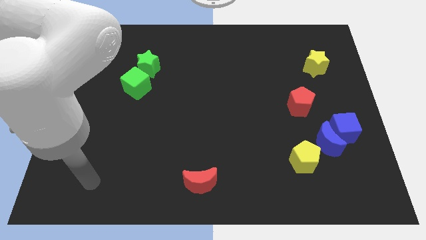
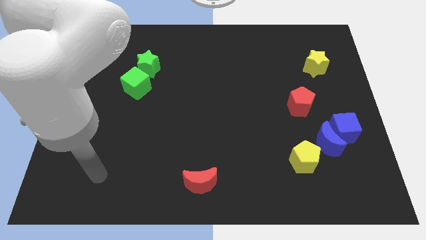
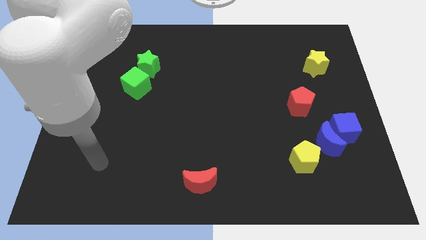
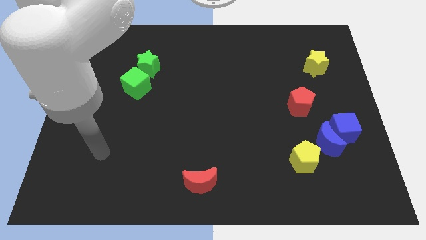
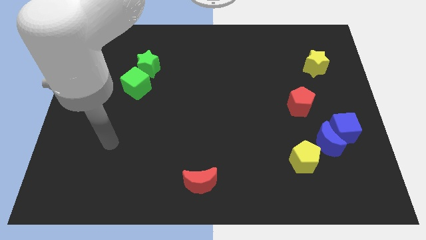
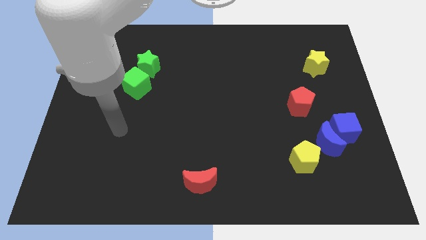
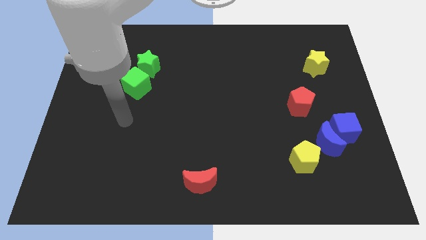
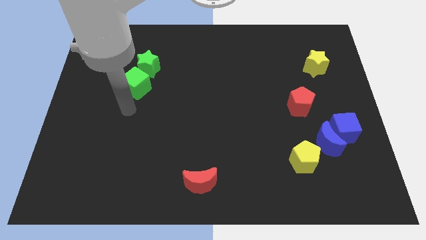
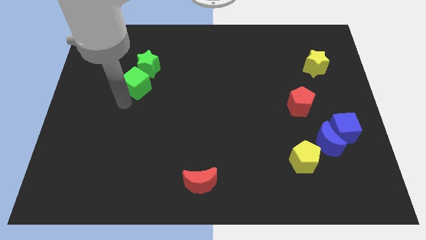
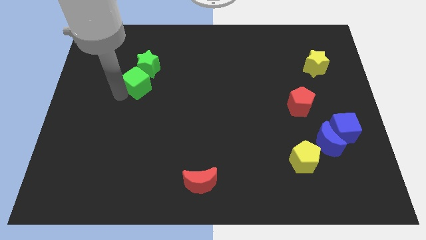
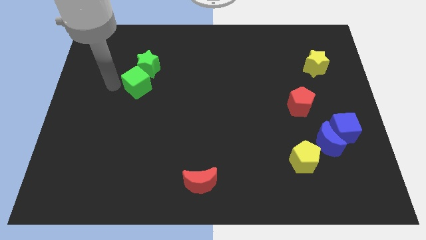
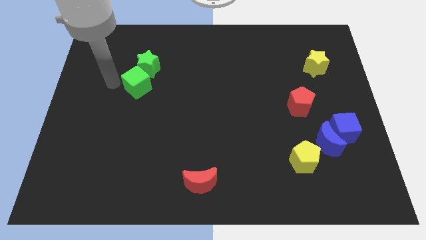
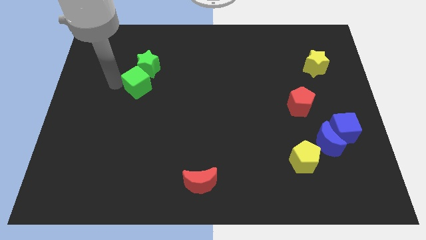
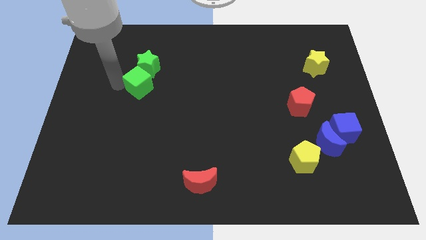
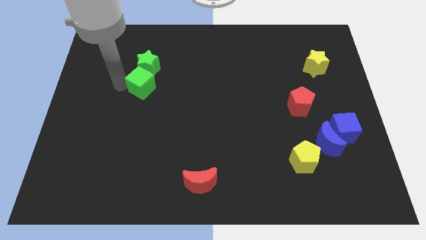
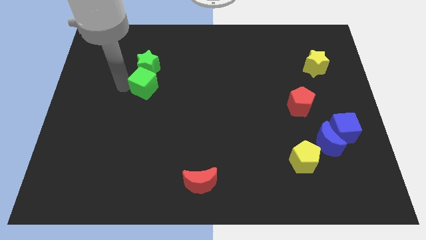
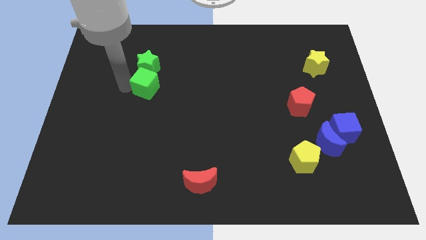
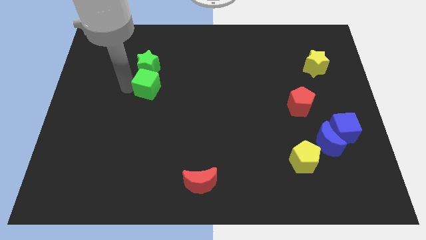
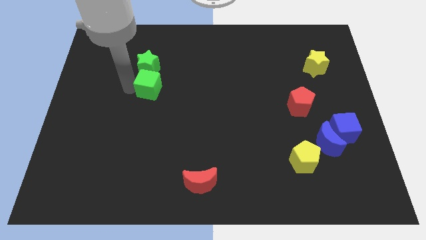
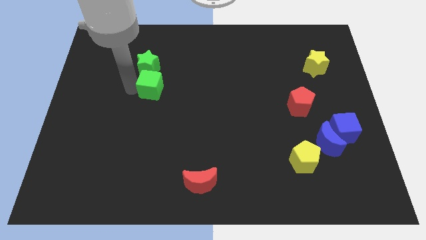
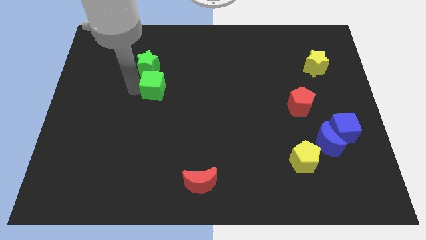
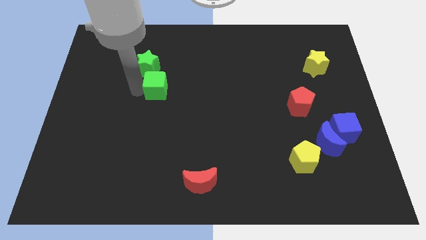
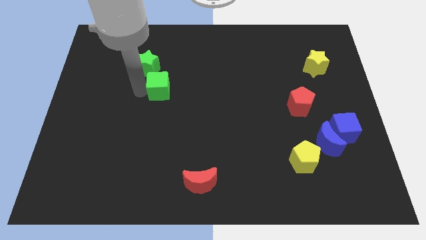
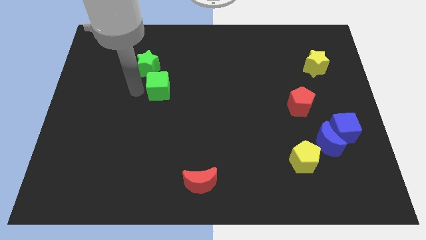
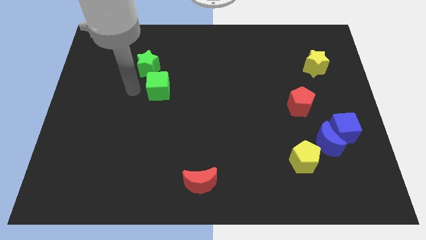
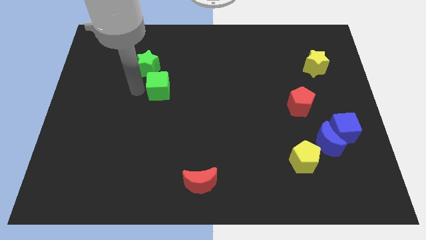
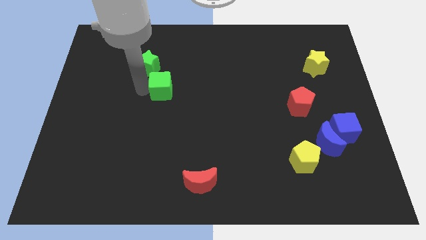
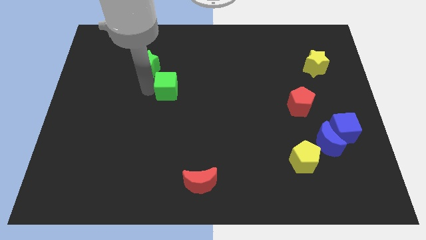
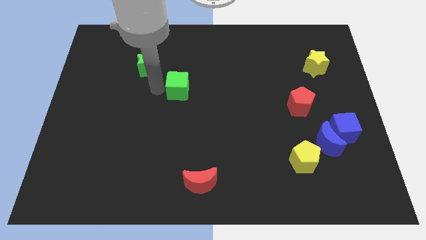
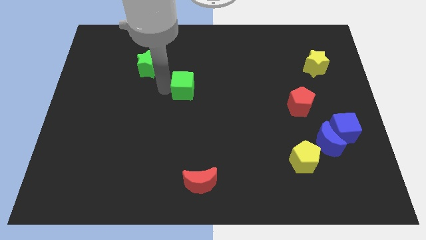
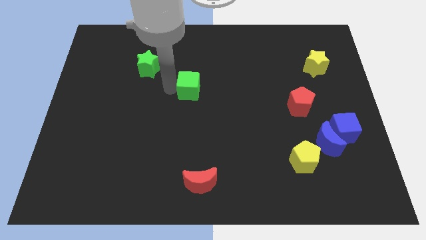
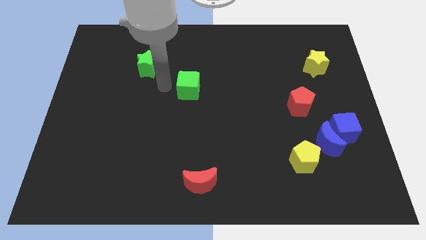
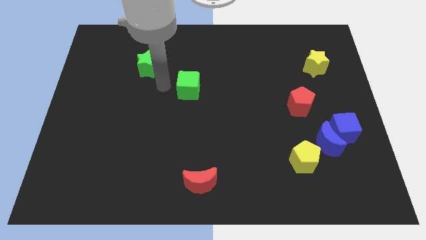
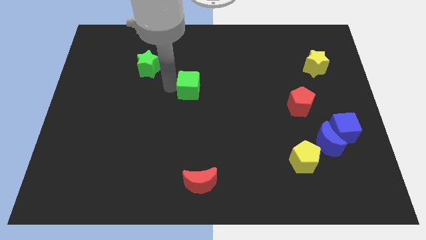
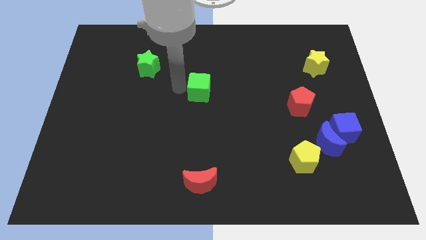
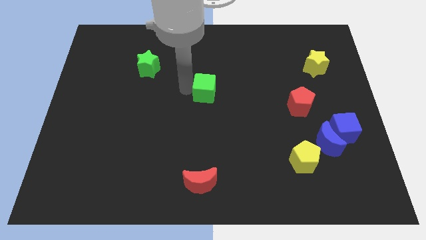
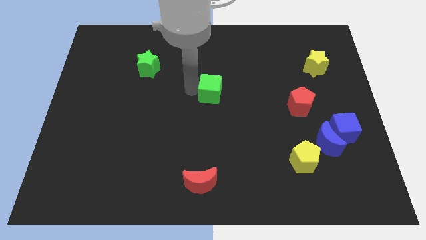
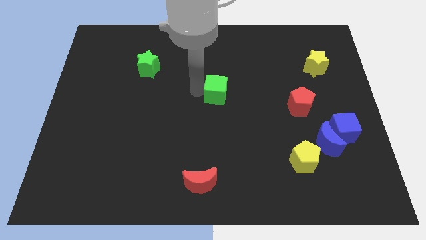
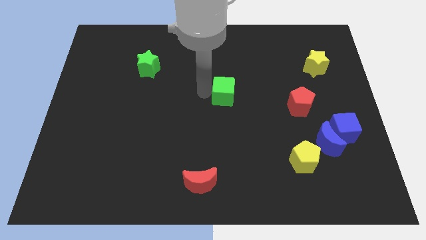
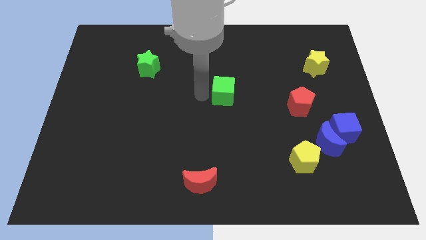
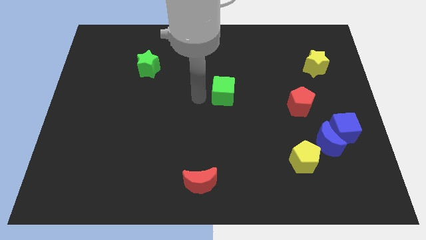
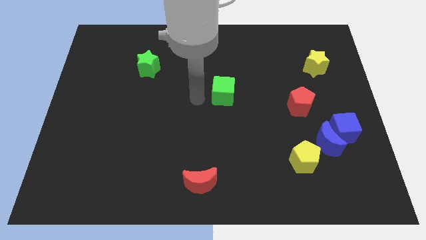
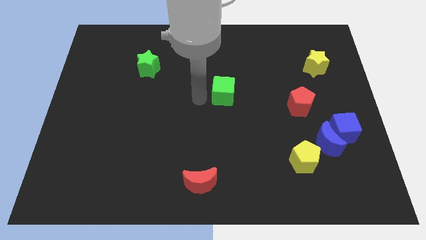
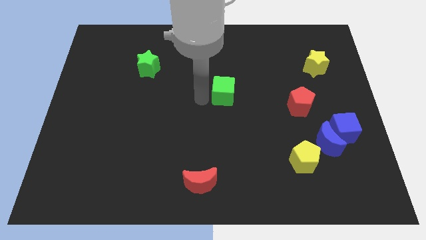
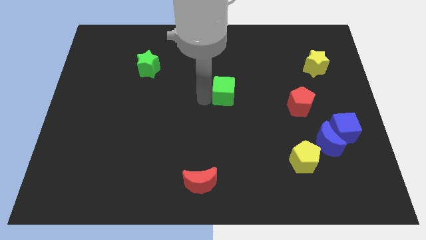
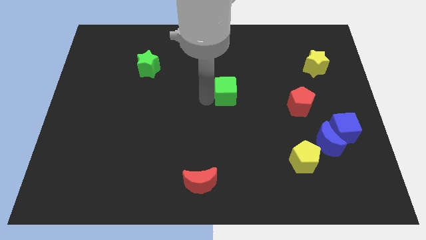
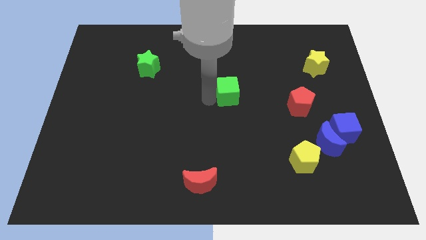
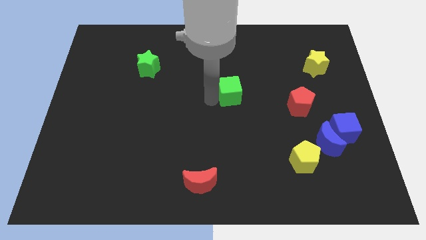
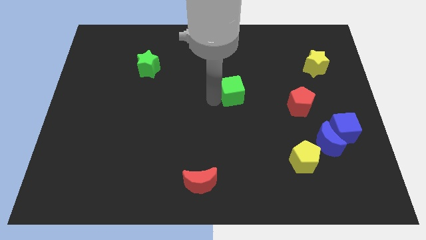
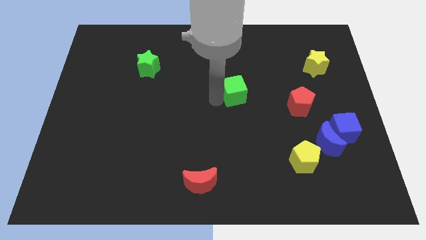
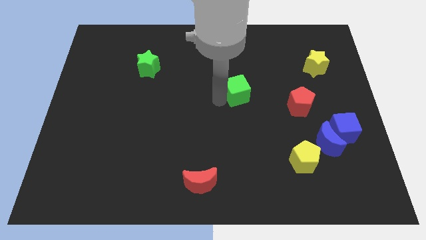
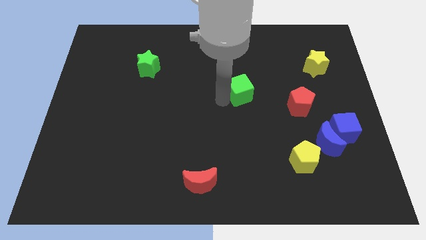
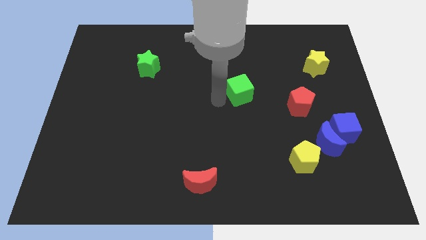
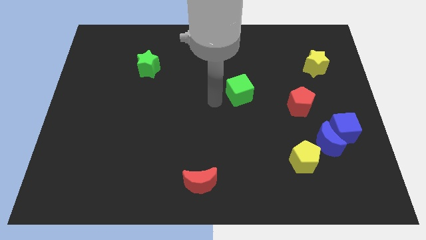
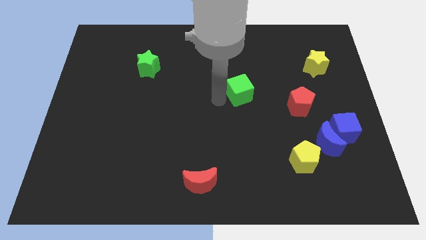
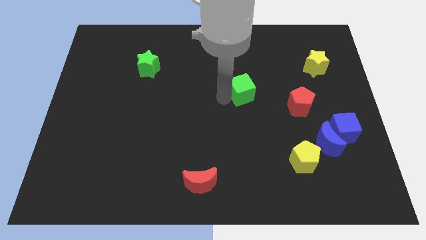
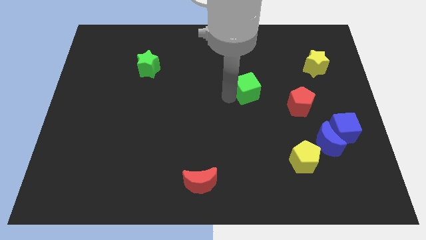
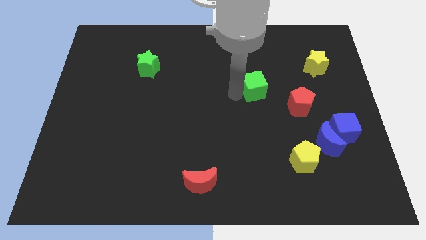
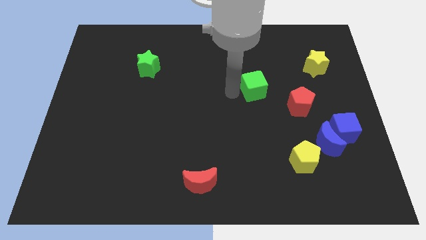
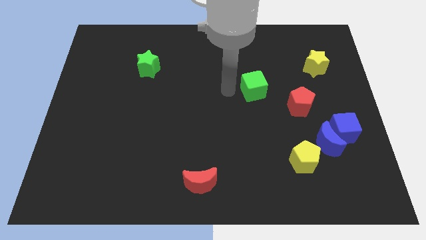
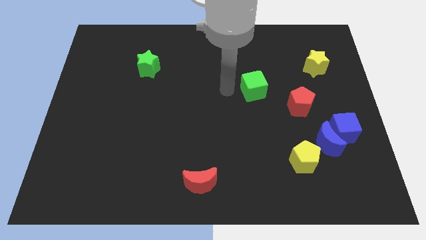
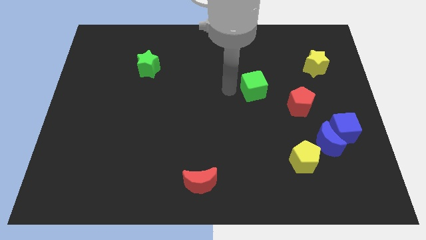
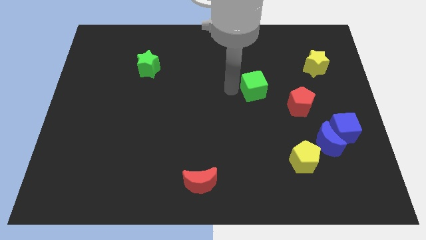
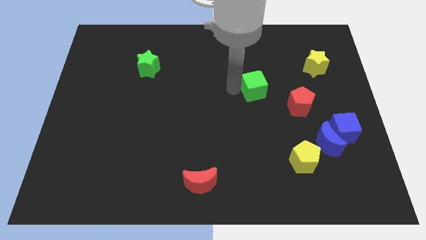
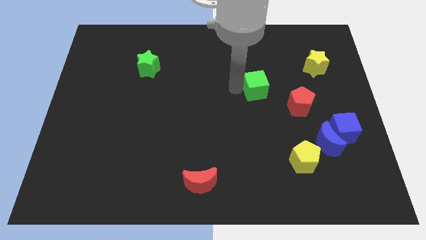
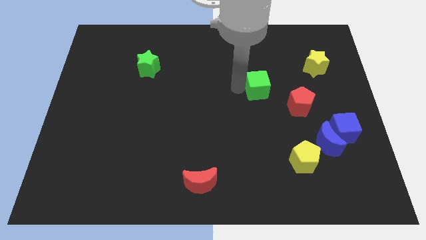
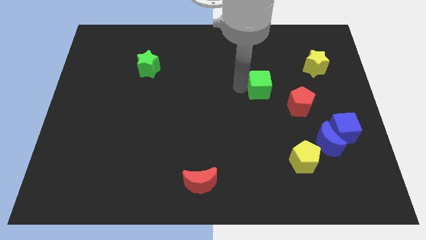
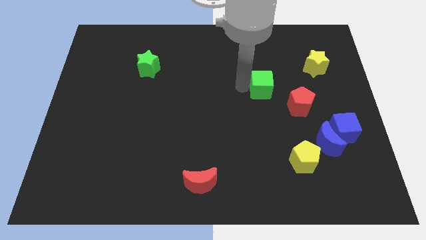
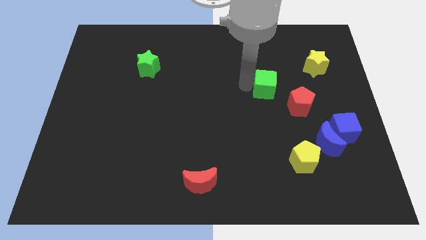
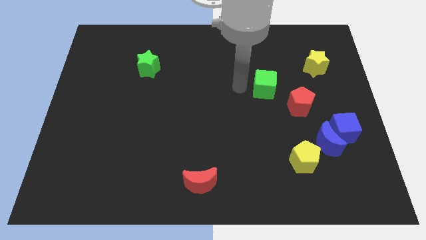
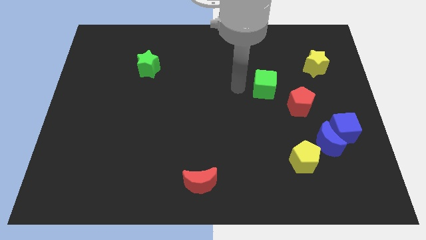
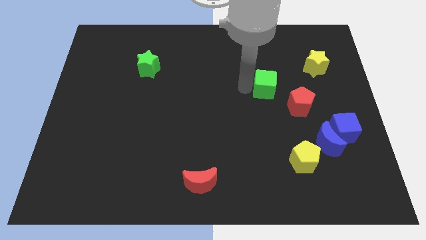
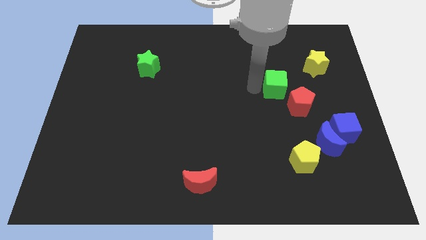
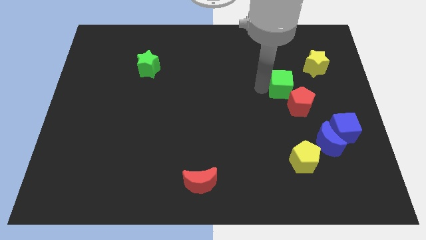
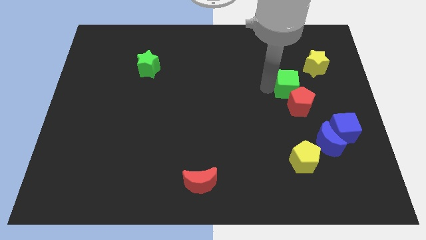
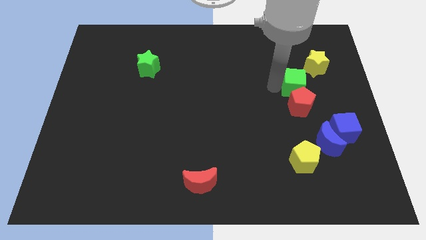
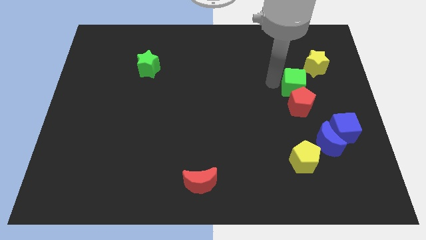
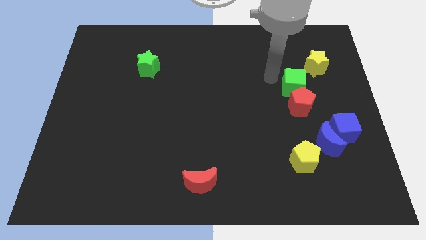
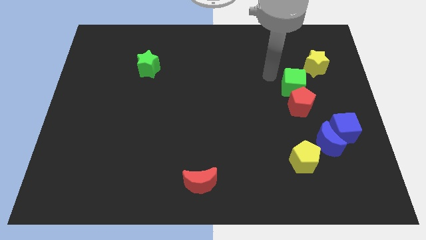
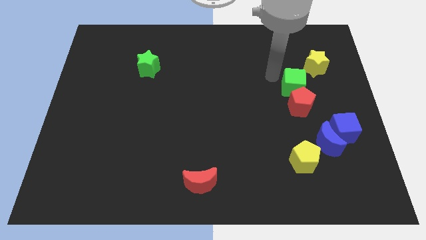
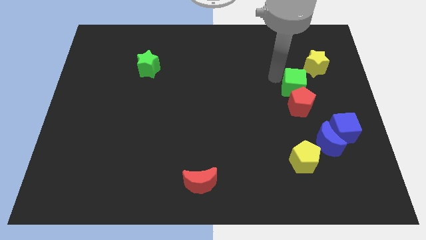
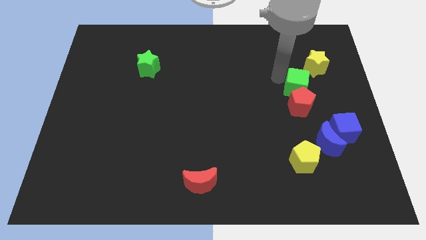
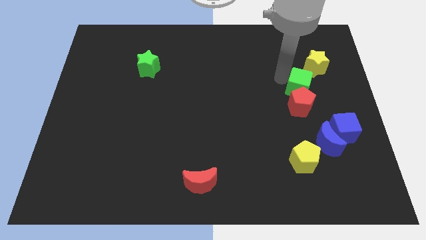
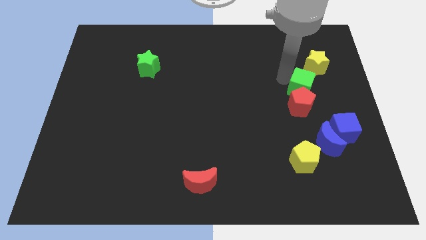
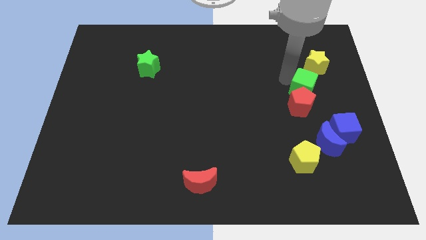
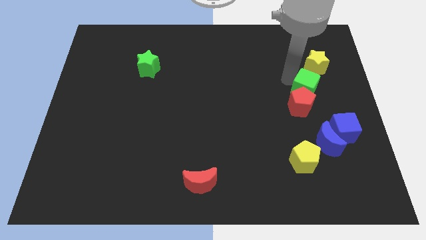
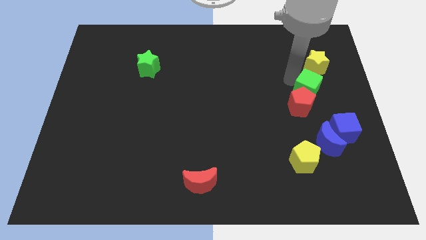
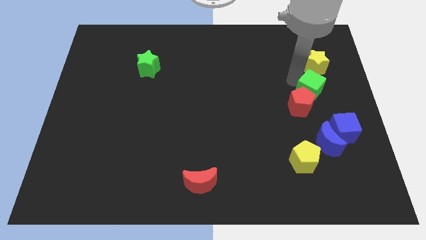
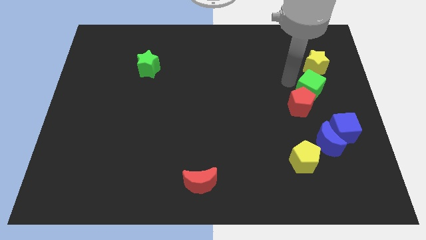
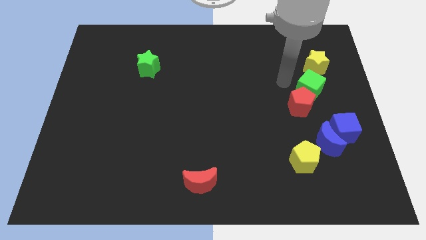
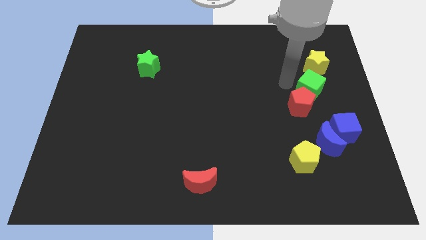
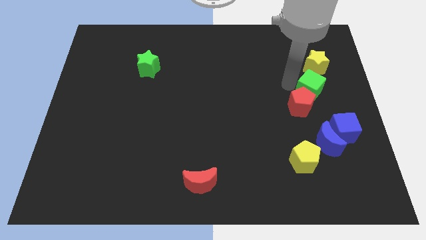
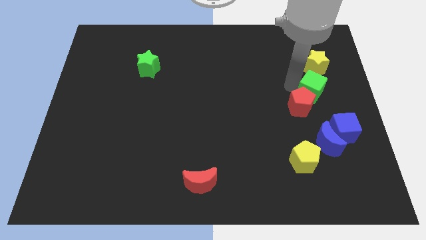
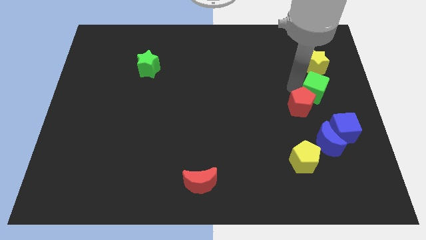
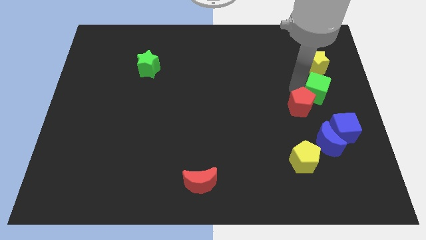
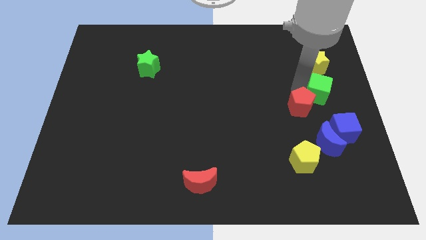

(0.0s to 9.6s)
slide the green cube to the right side
